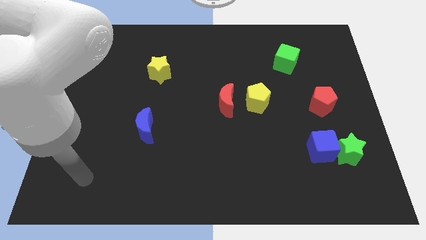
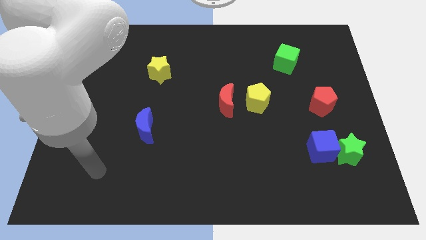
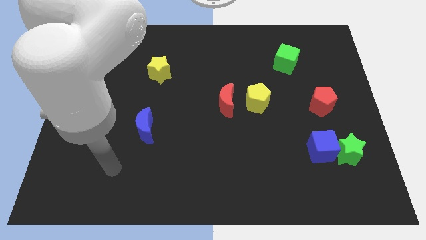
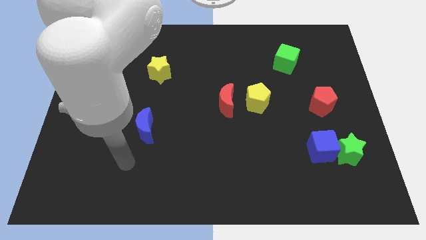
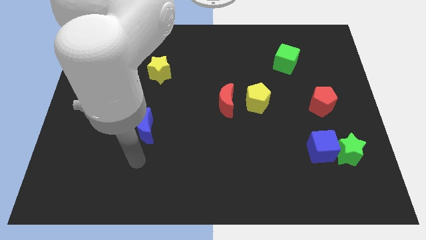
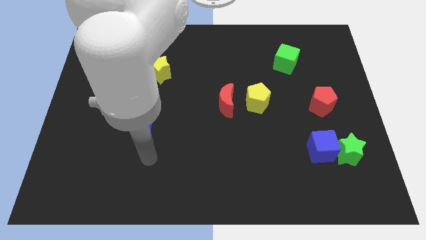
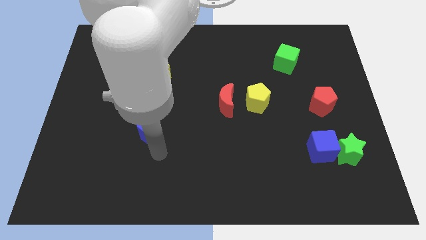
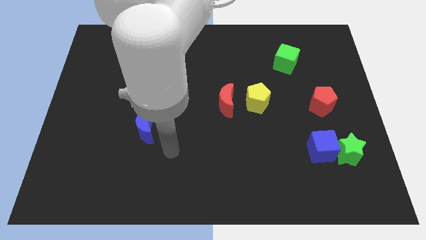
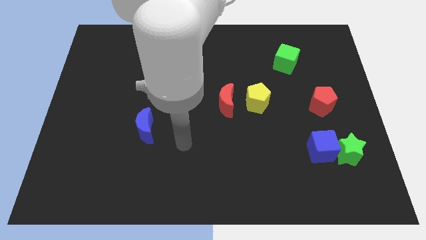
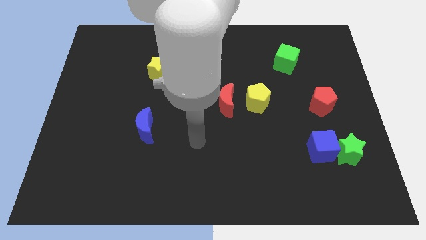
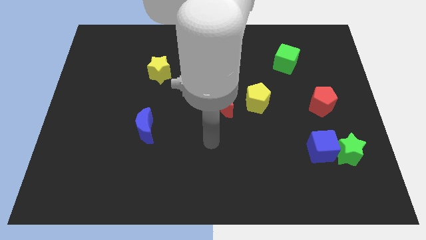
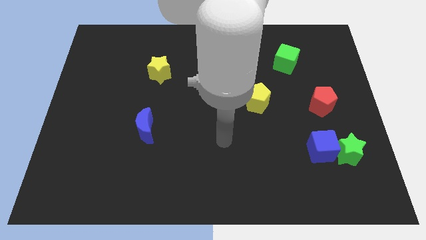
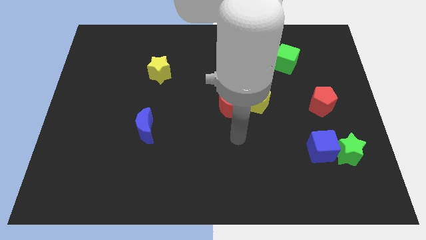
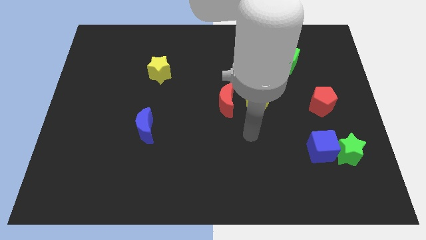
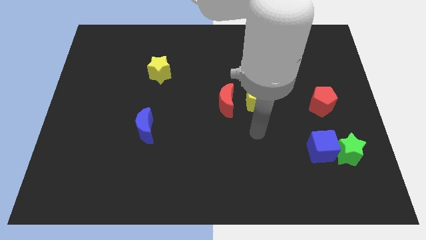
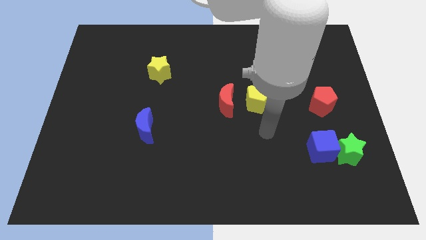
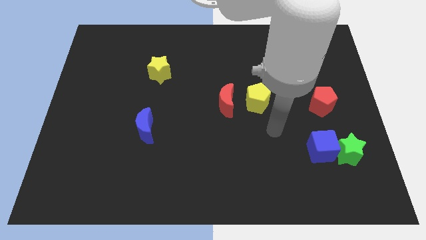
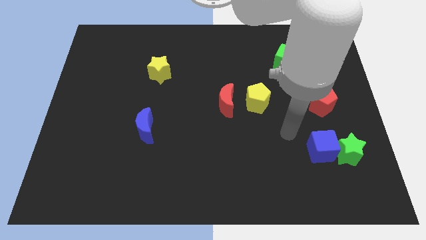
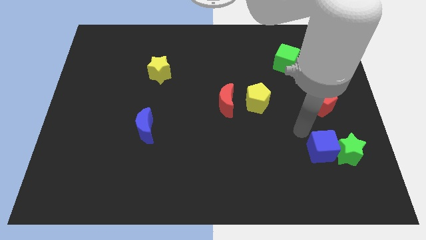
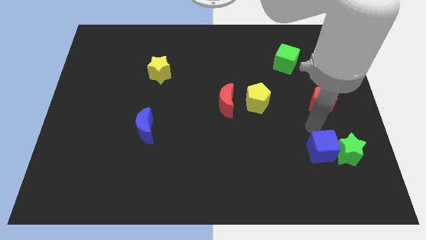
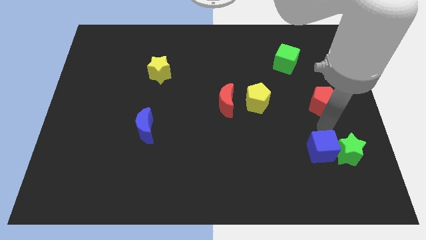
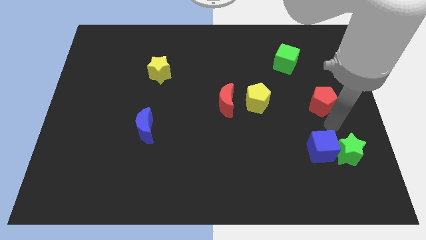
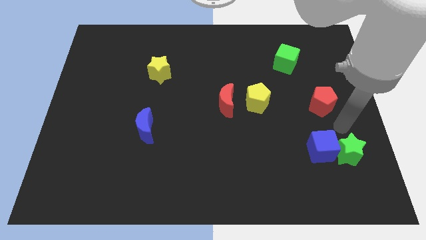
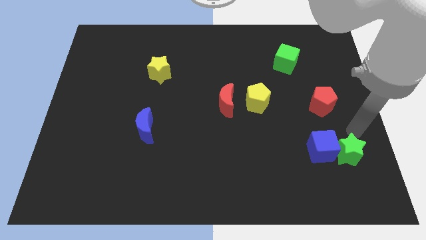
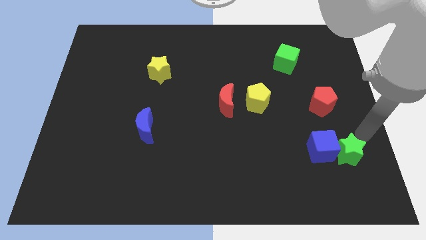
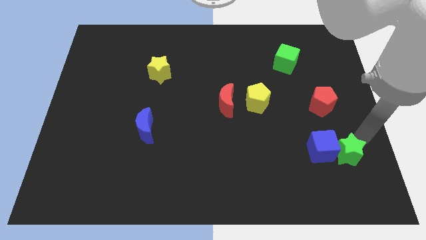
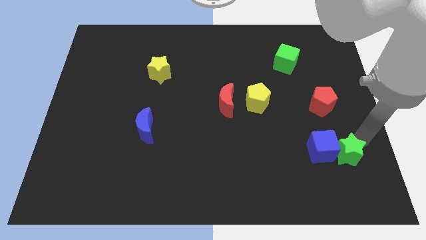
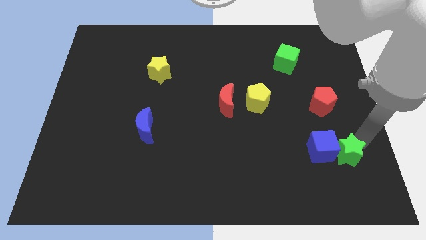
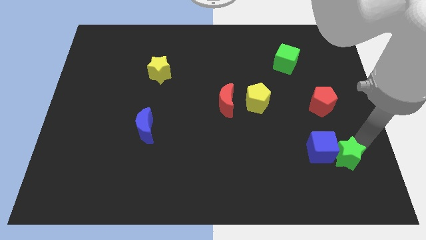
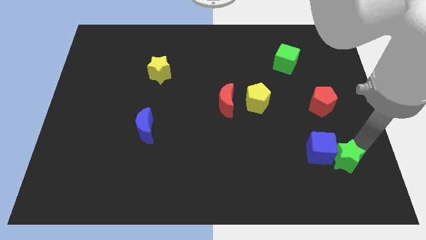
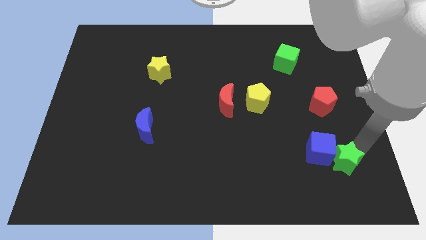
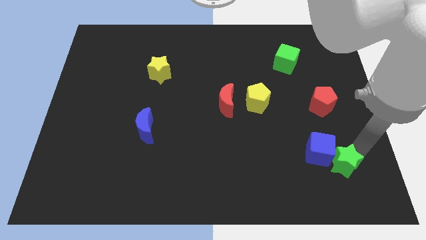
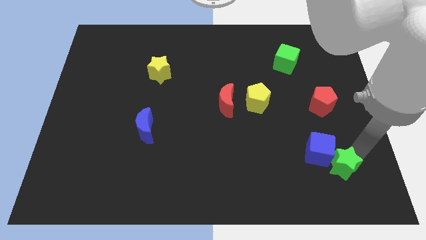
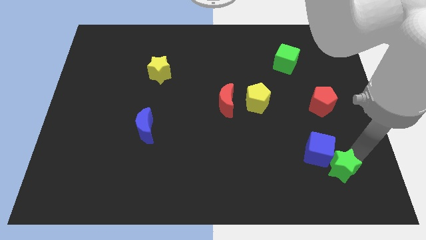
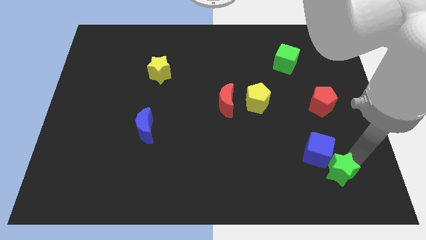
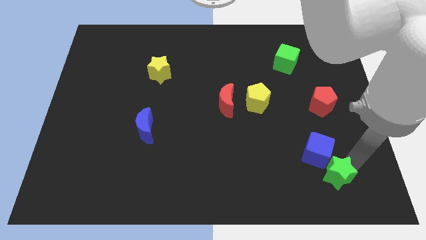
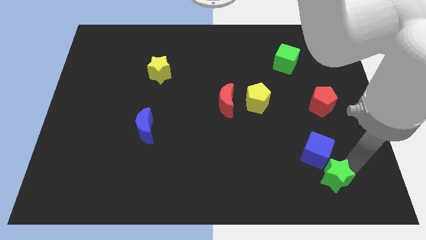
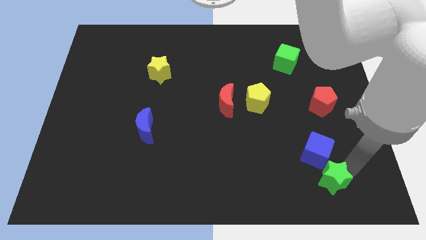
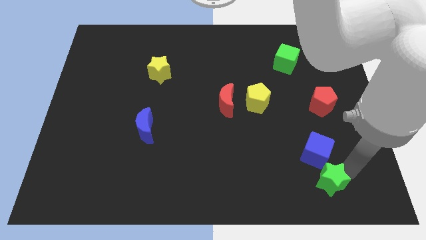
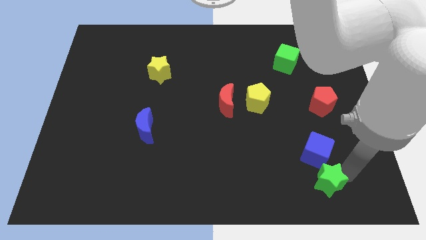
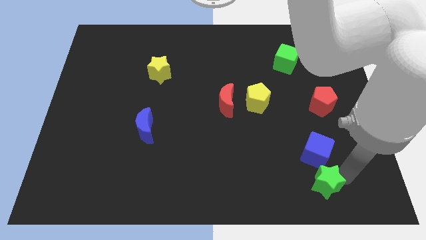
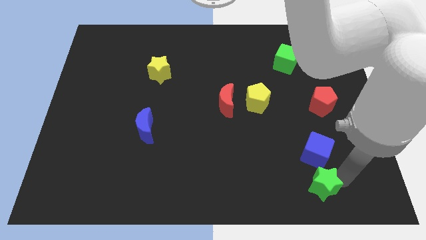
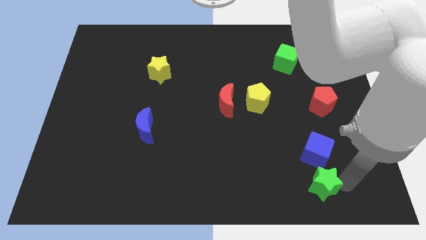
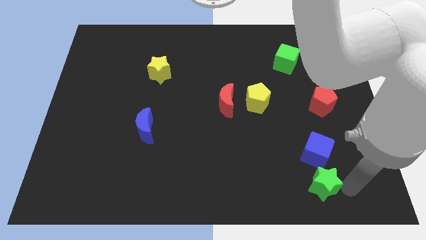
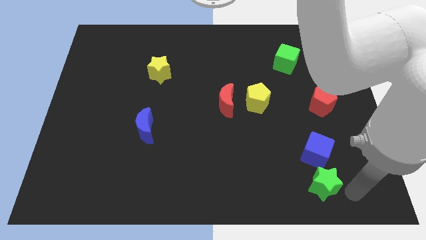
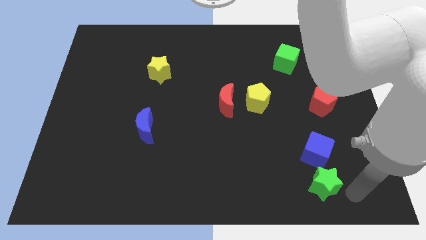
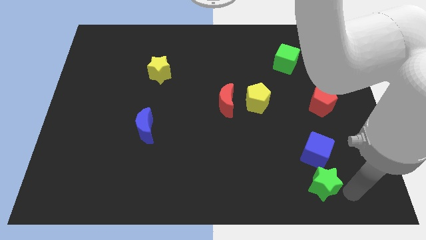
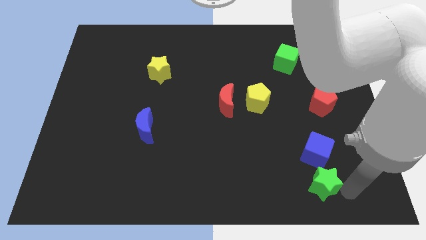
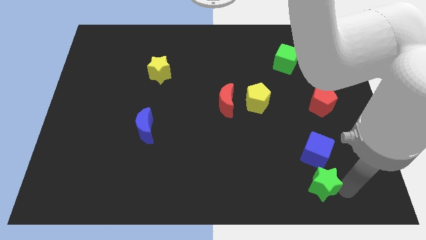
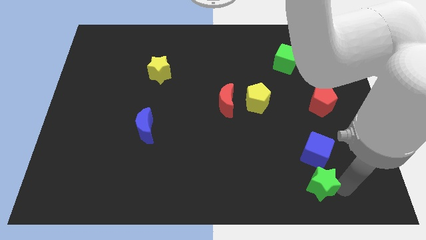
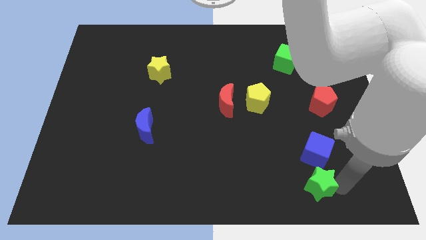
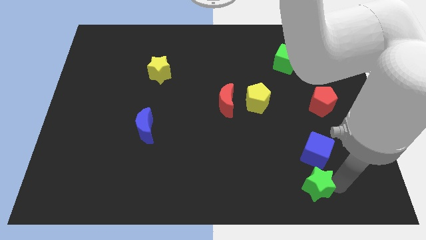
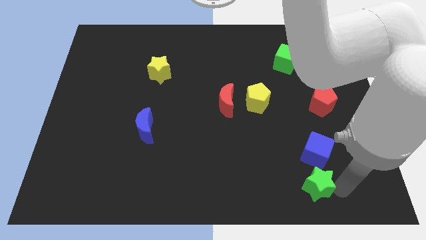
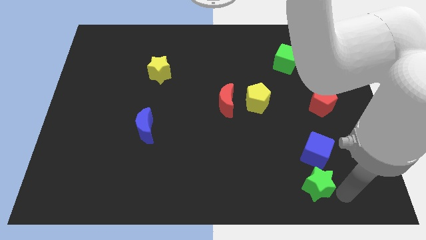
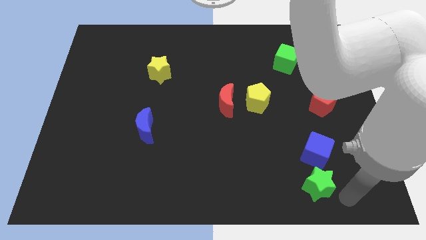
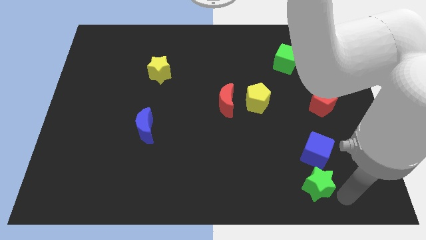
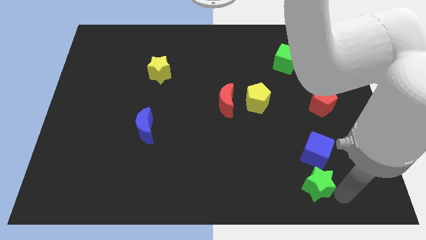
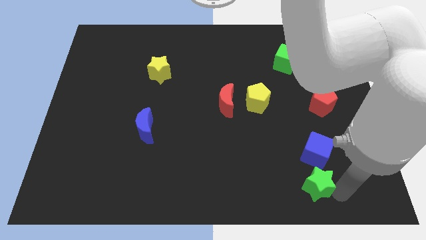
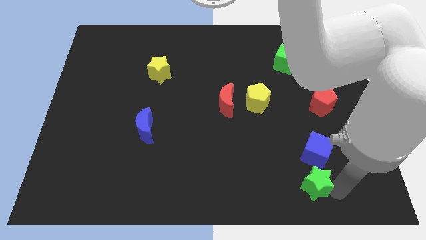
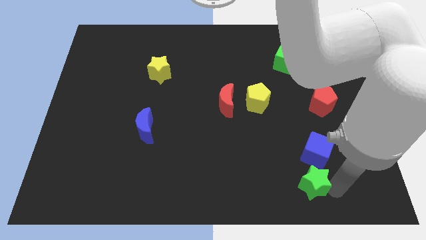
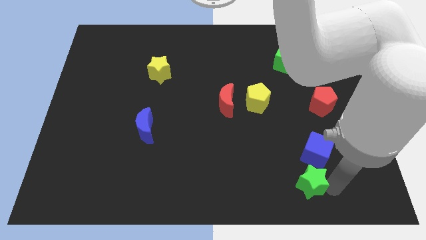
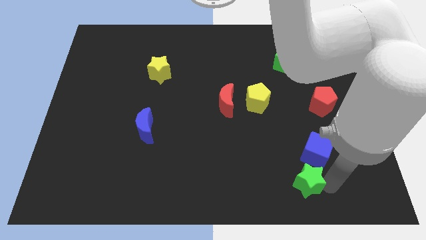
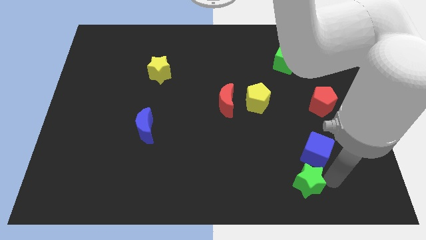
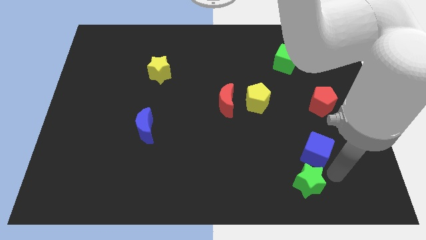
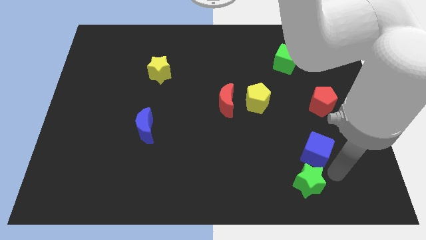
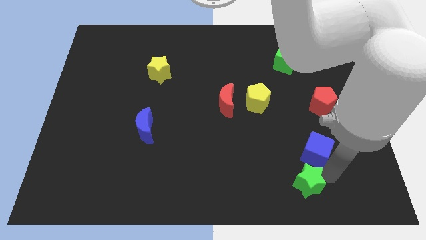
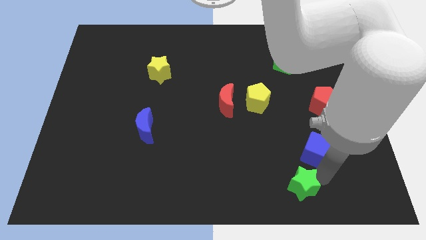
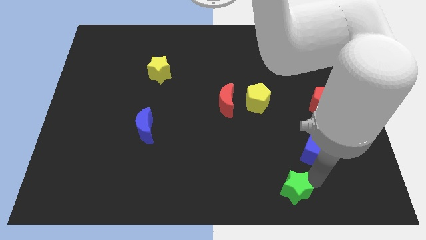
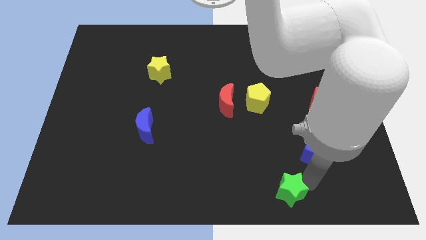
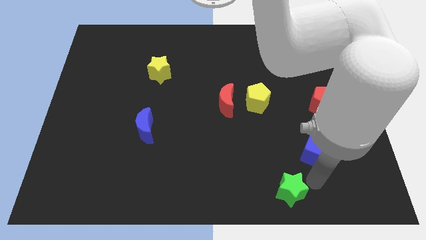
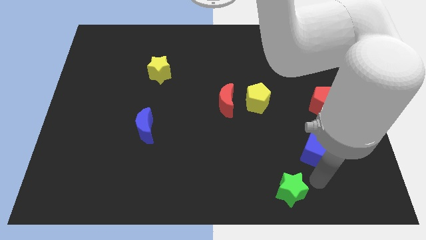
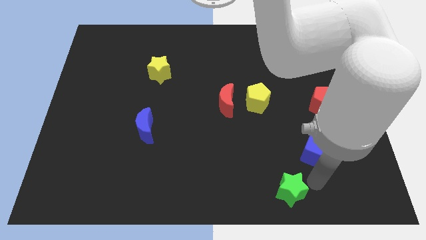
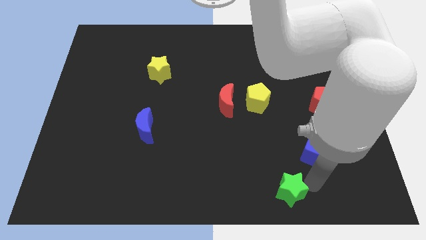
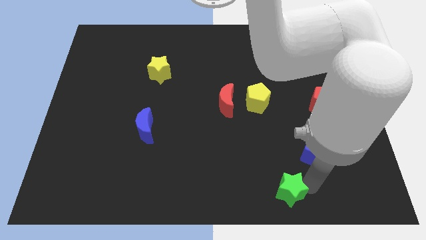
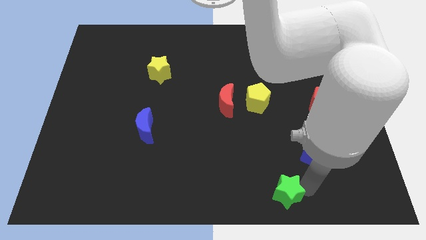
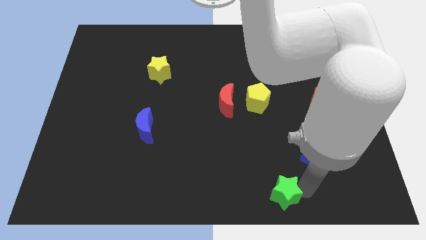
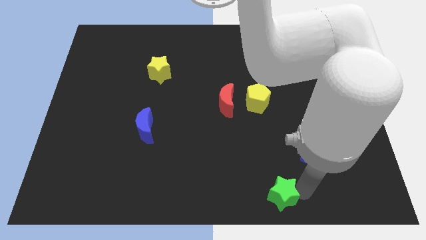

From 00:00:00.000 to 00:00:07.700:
push the green star to the bottom side
